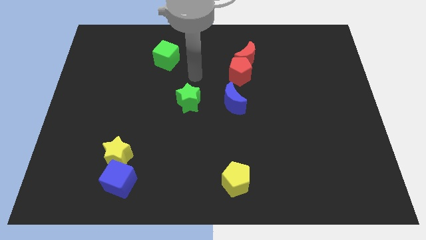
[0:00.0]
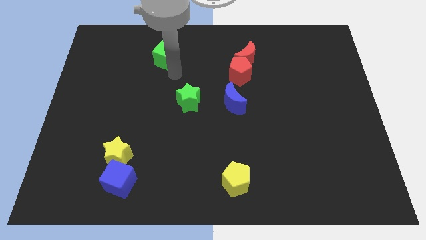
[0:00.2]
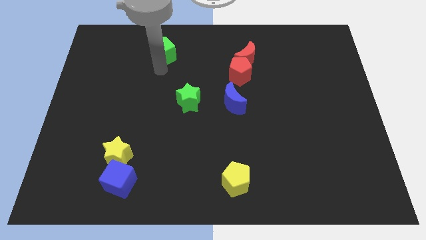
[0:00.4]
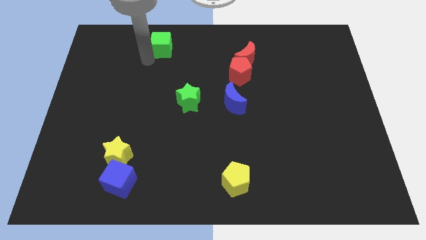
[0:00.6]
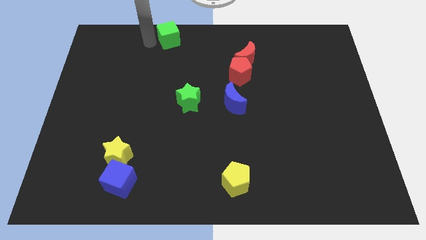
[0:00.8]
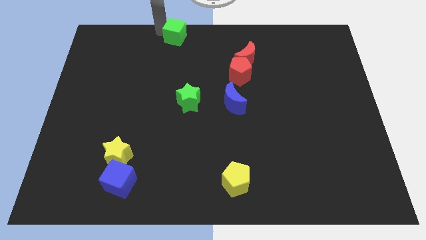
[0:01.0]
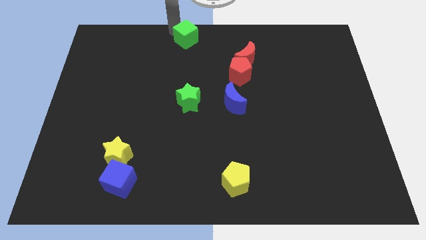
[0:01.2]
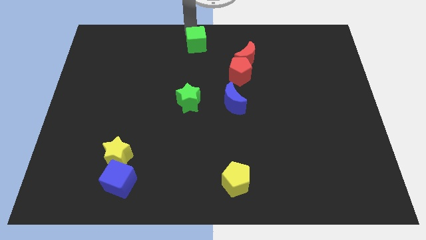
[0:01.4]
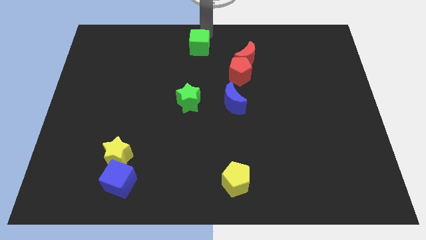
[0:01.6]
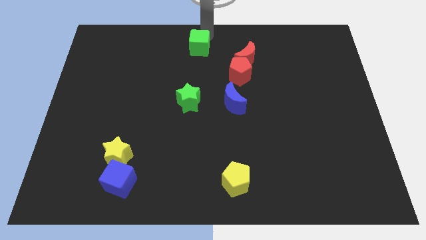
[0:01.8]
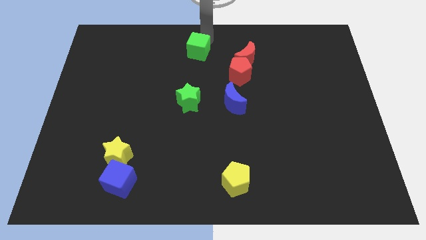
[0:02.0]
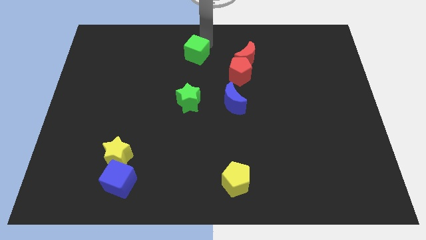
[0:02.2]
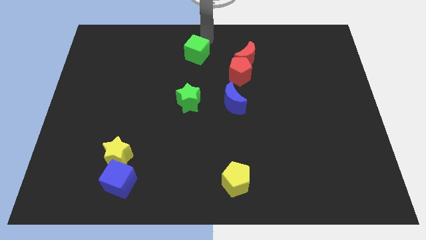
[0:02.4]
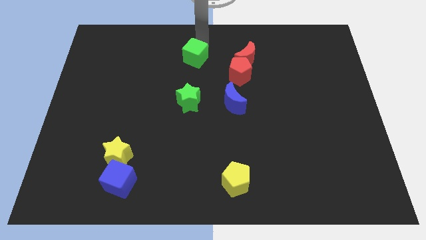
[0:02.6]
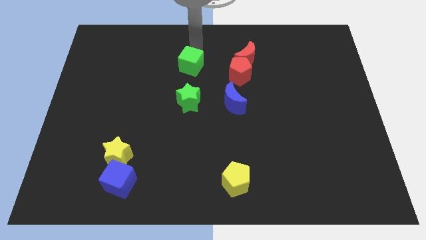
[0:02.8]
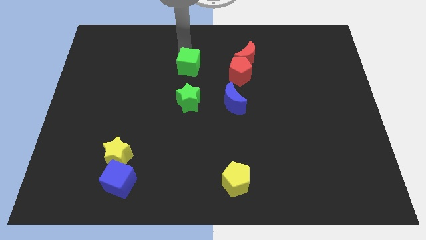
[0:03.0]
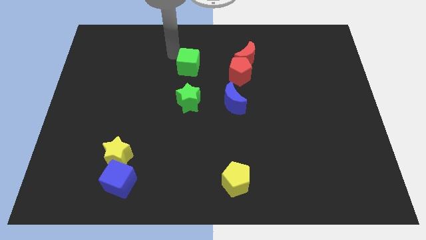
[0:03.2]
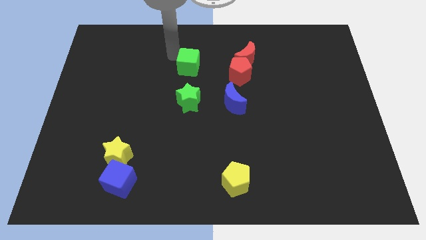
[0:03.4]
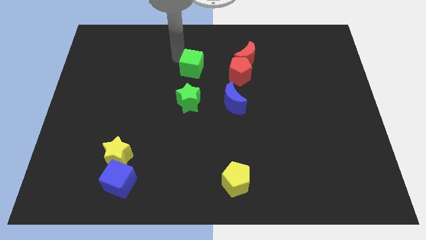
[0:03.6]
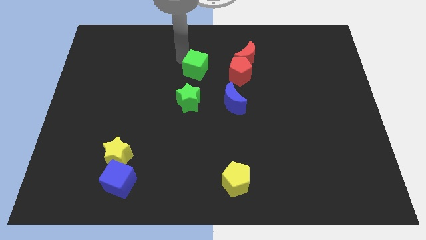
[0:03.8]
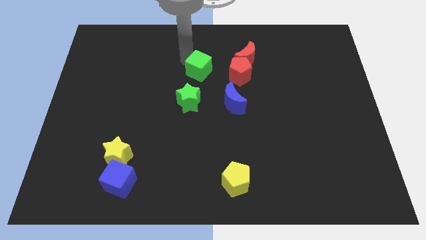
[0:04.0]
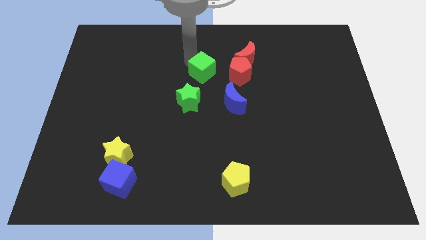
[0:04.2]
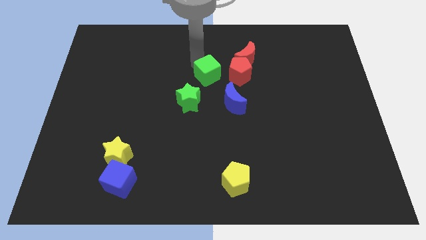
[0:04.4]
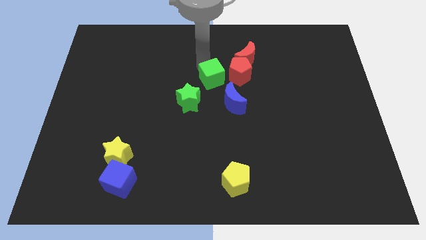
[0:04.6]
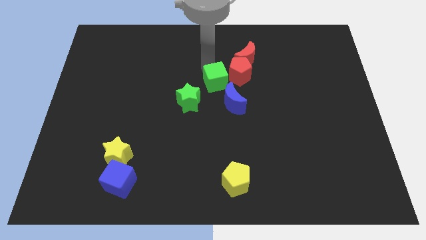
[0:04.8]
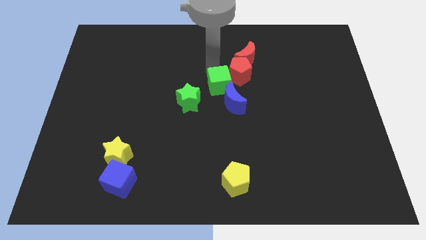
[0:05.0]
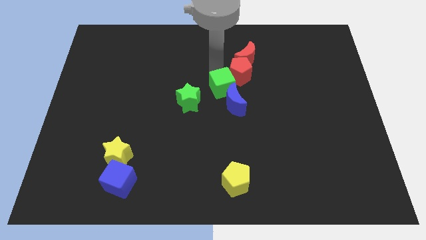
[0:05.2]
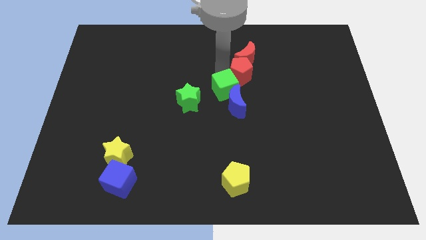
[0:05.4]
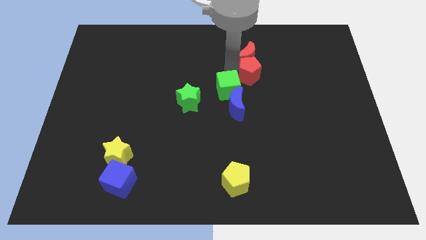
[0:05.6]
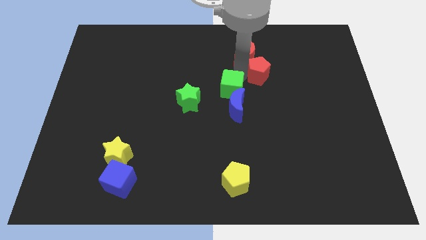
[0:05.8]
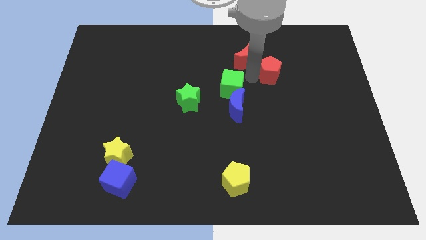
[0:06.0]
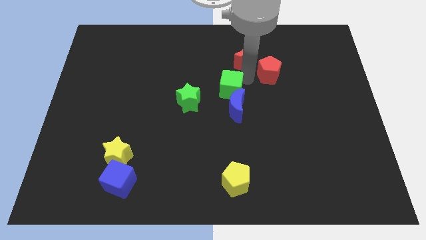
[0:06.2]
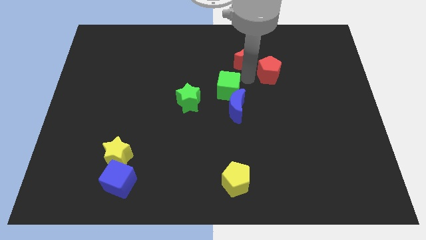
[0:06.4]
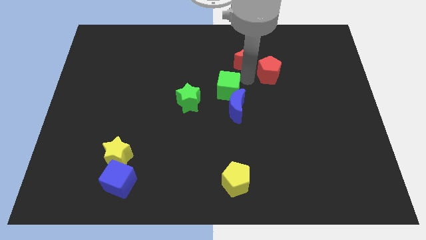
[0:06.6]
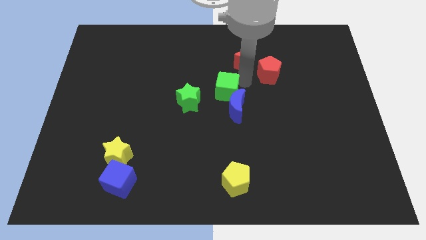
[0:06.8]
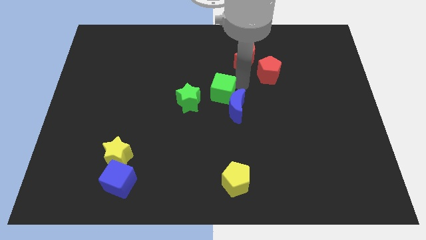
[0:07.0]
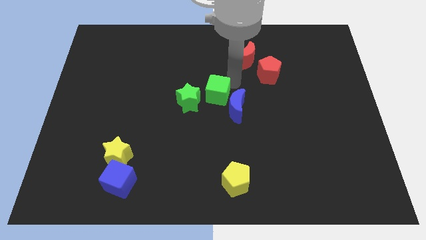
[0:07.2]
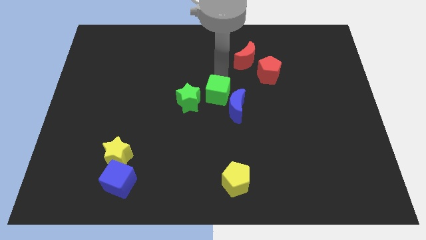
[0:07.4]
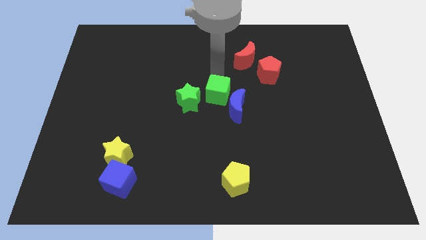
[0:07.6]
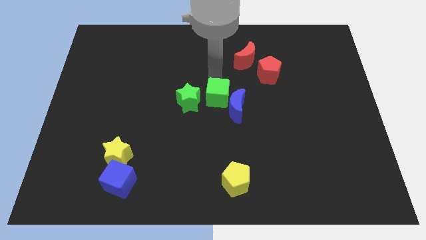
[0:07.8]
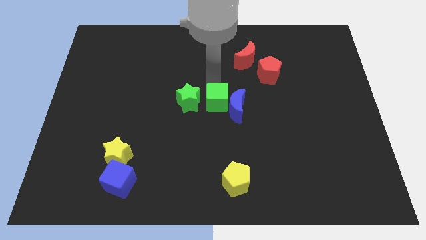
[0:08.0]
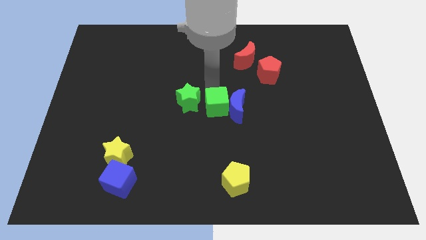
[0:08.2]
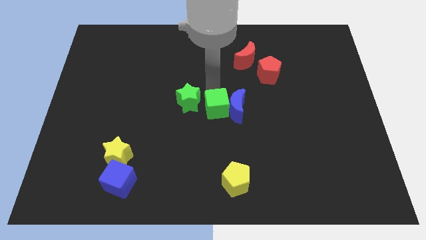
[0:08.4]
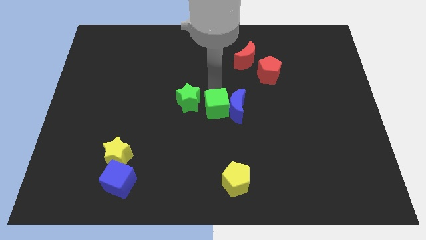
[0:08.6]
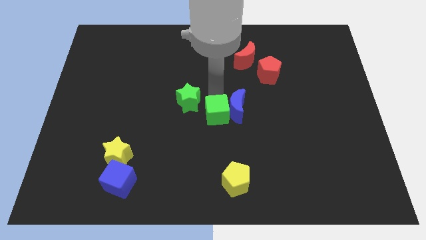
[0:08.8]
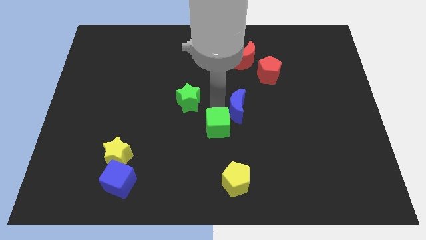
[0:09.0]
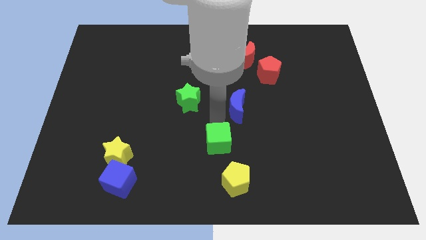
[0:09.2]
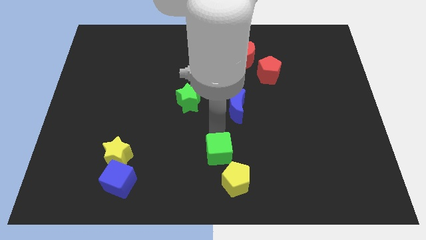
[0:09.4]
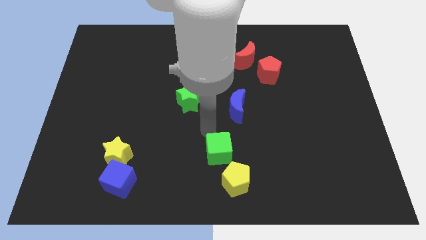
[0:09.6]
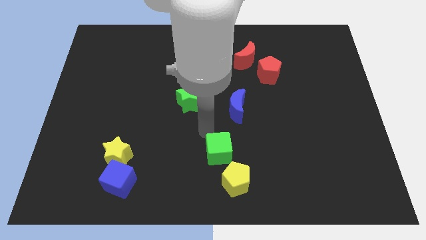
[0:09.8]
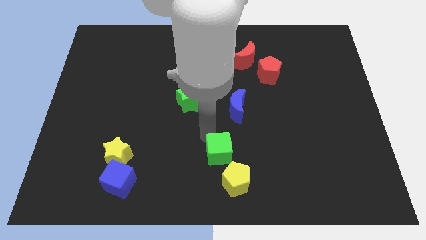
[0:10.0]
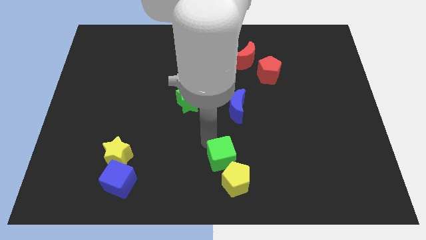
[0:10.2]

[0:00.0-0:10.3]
push the green cube to the yellow pentagon

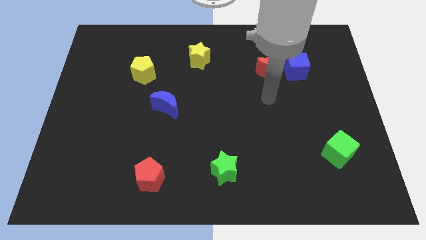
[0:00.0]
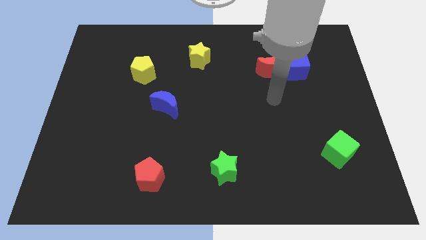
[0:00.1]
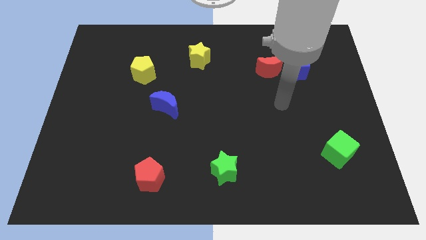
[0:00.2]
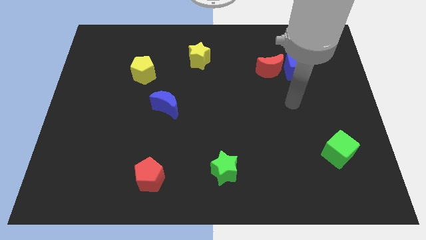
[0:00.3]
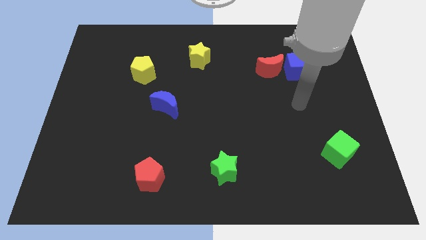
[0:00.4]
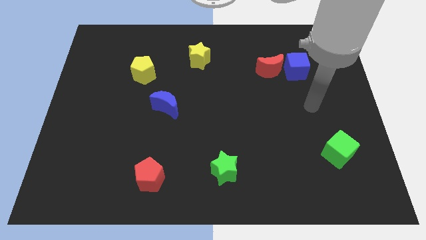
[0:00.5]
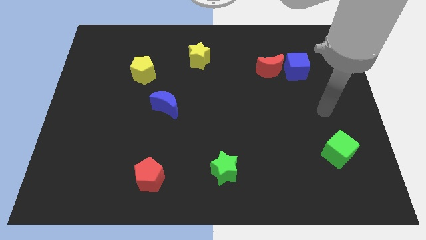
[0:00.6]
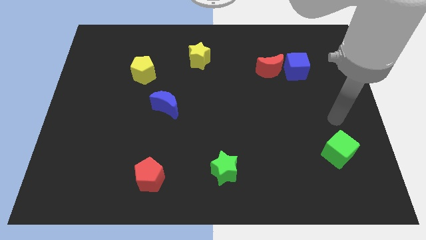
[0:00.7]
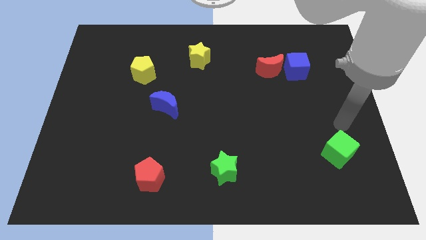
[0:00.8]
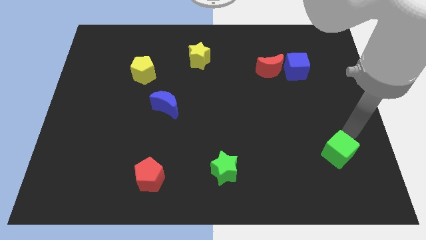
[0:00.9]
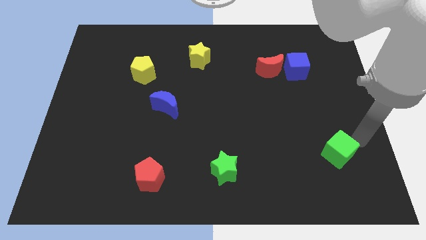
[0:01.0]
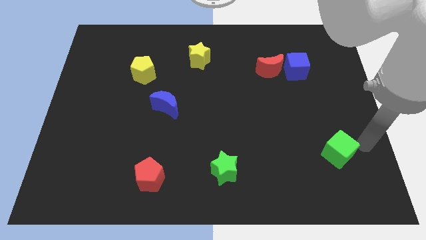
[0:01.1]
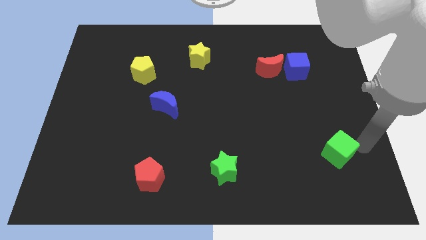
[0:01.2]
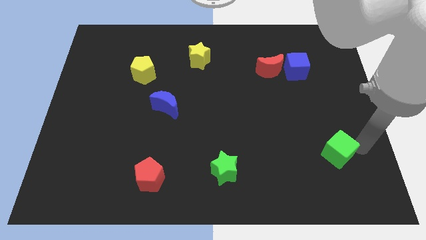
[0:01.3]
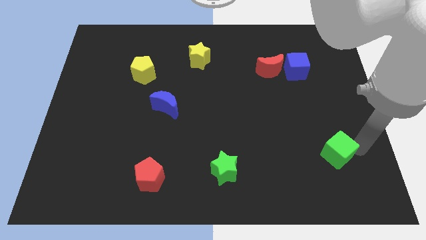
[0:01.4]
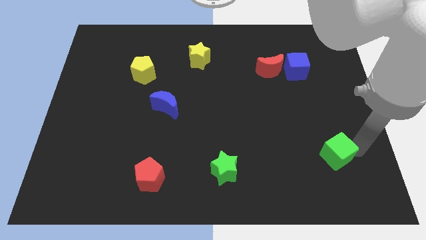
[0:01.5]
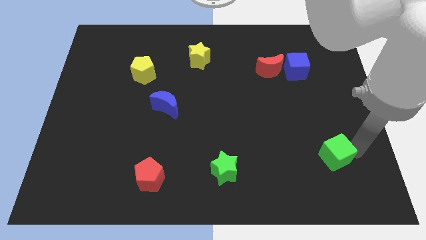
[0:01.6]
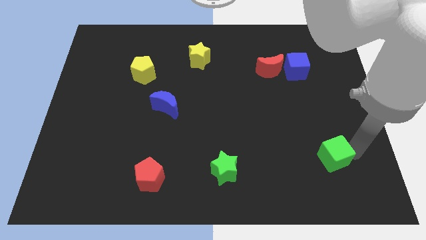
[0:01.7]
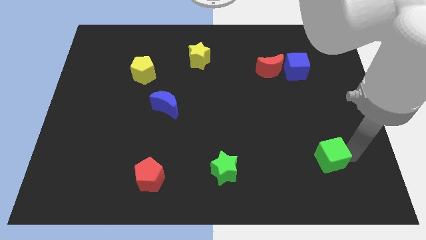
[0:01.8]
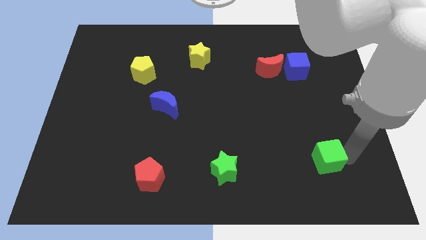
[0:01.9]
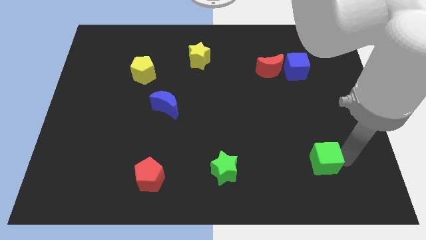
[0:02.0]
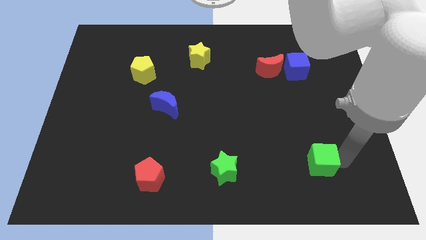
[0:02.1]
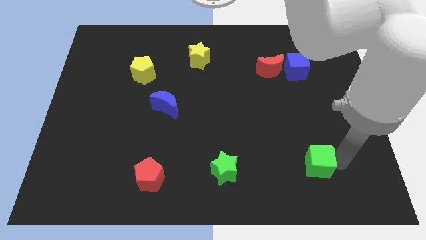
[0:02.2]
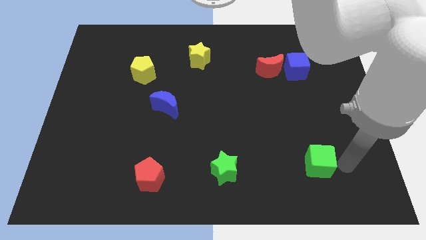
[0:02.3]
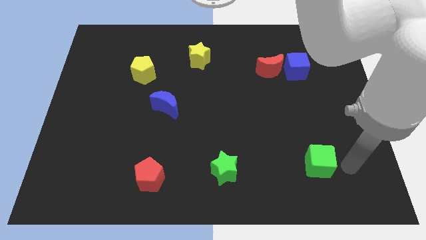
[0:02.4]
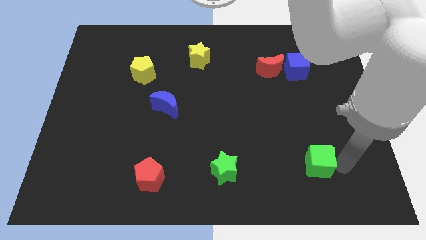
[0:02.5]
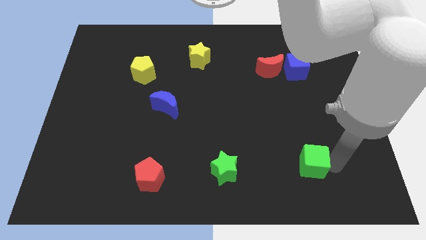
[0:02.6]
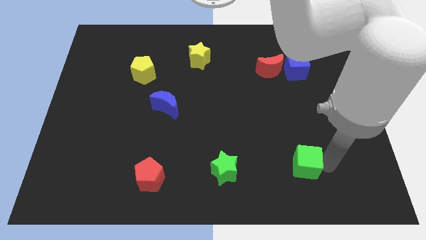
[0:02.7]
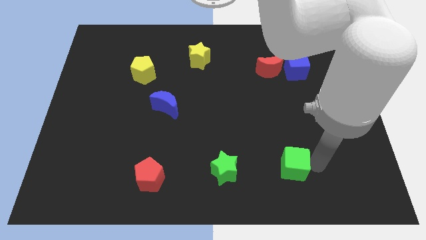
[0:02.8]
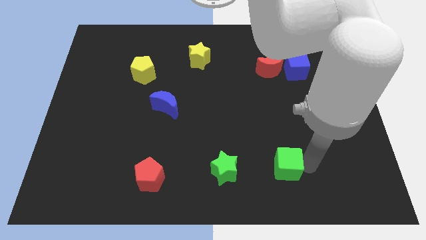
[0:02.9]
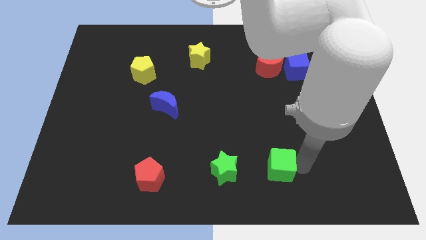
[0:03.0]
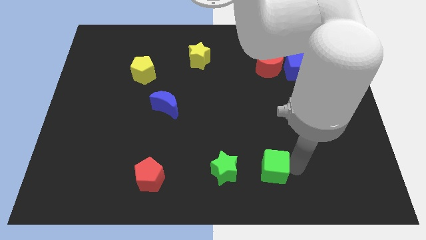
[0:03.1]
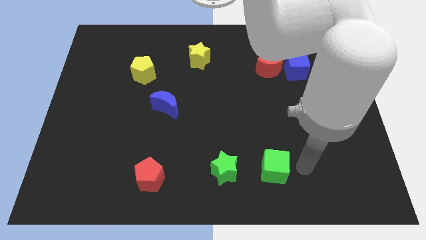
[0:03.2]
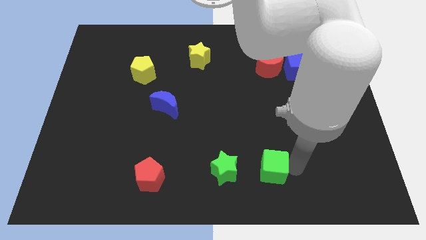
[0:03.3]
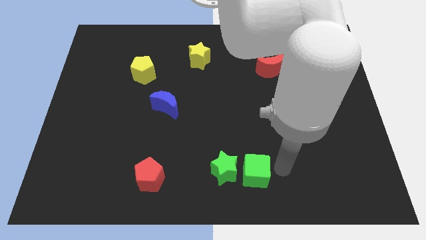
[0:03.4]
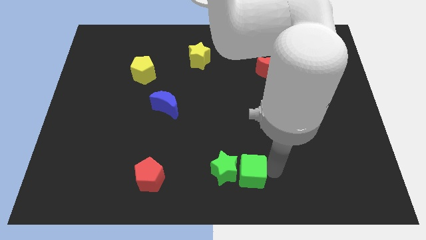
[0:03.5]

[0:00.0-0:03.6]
move the green cube to the green star
